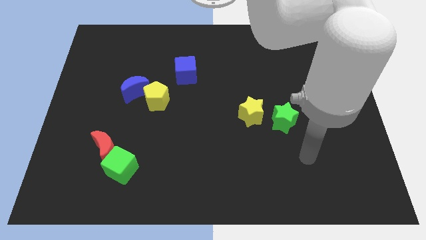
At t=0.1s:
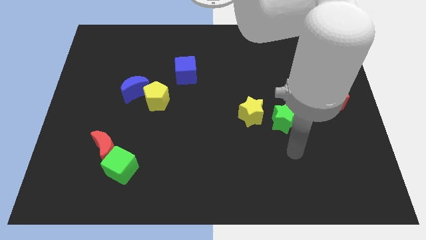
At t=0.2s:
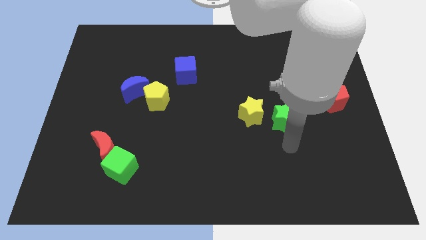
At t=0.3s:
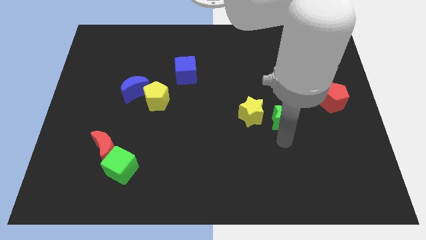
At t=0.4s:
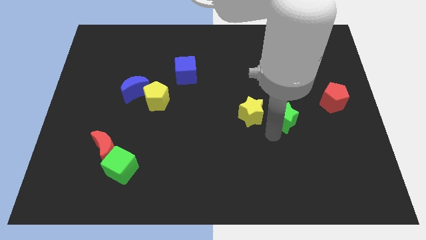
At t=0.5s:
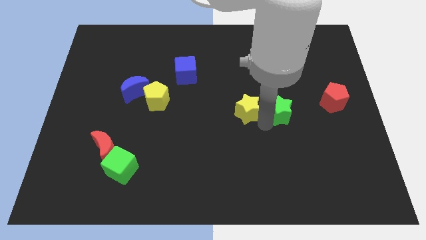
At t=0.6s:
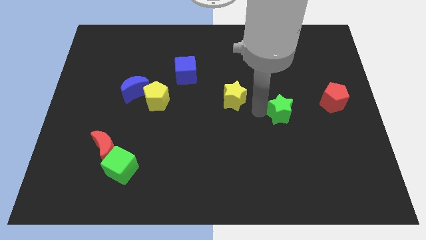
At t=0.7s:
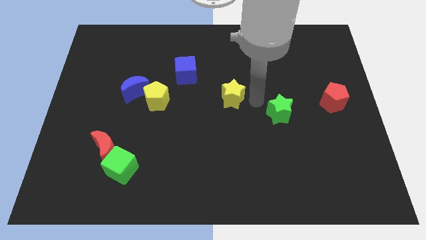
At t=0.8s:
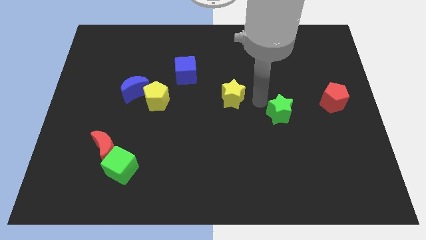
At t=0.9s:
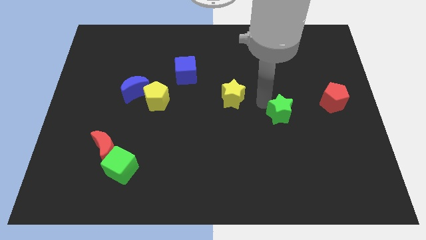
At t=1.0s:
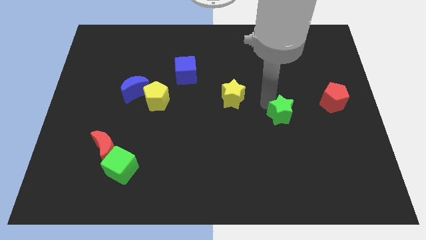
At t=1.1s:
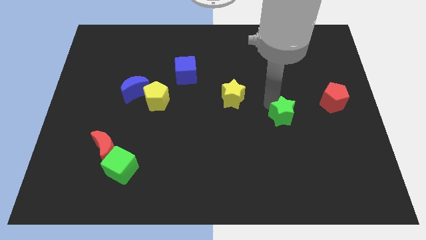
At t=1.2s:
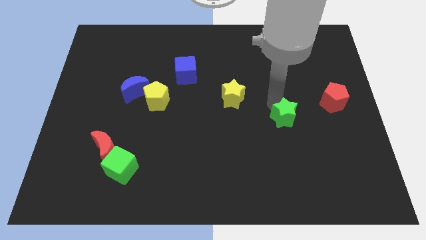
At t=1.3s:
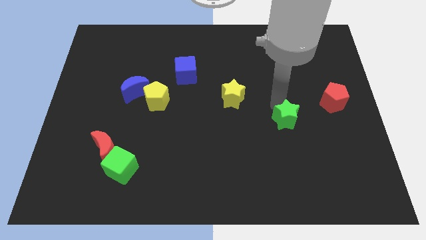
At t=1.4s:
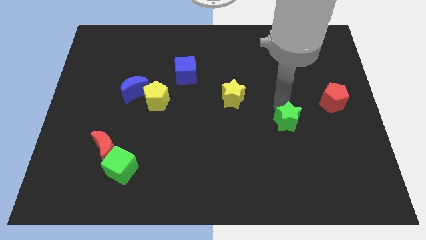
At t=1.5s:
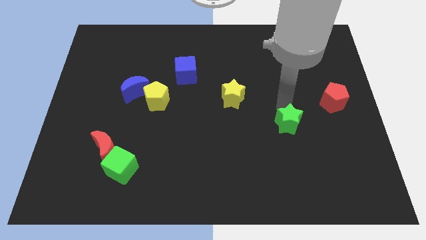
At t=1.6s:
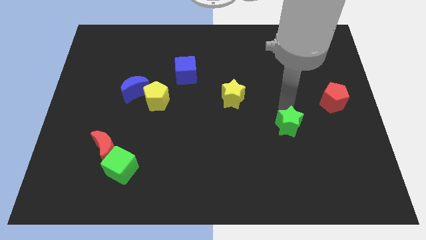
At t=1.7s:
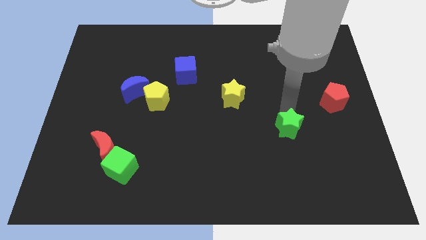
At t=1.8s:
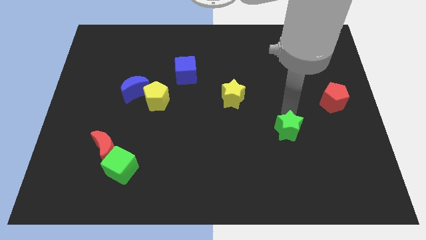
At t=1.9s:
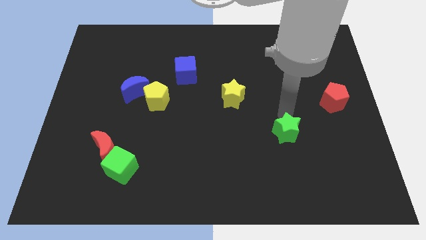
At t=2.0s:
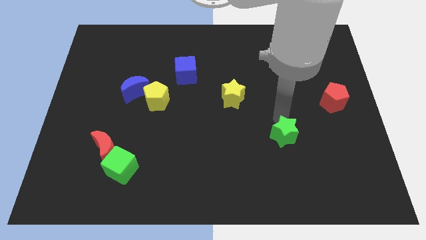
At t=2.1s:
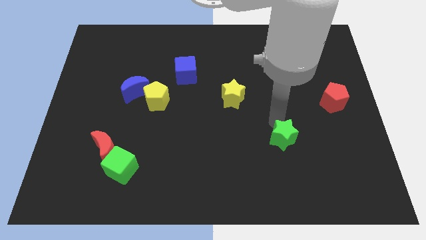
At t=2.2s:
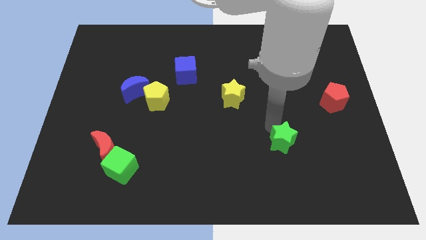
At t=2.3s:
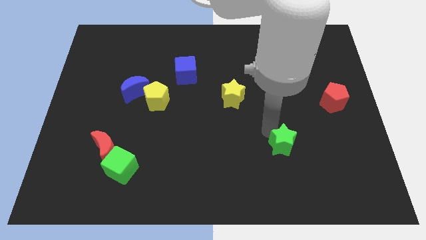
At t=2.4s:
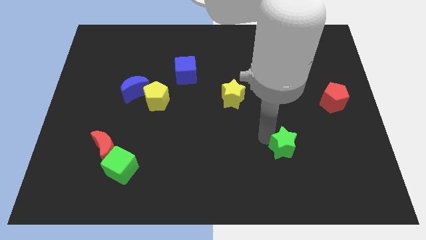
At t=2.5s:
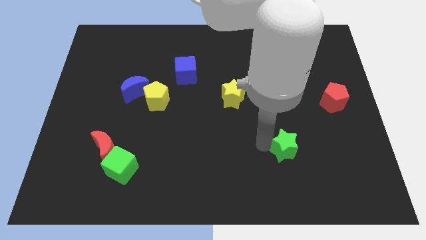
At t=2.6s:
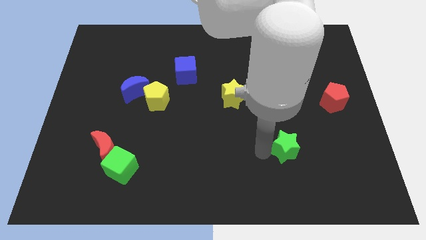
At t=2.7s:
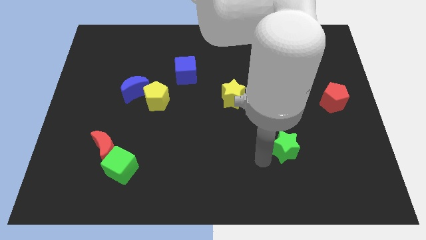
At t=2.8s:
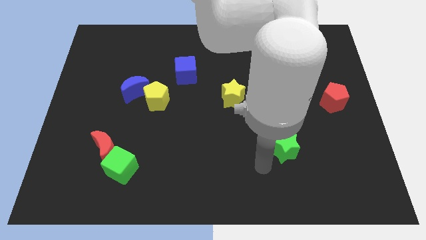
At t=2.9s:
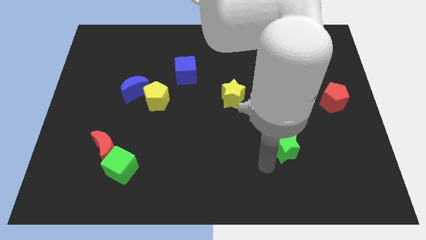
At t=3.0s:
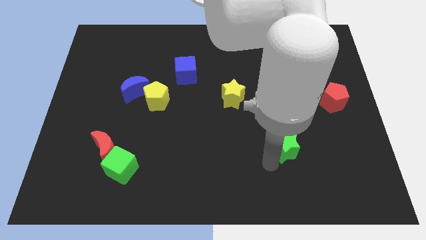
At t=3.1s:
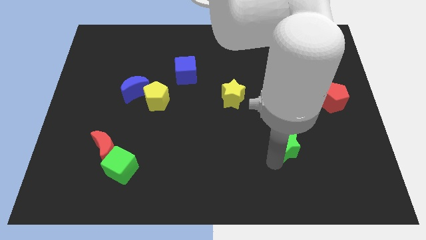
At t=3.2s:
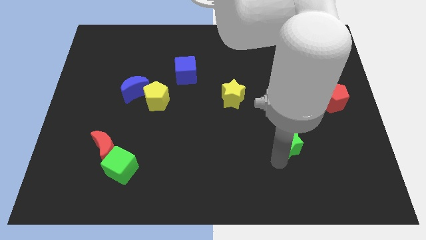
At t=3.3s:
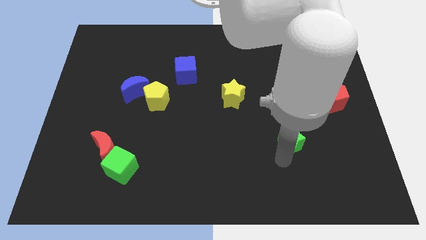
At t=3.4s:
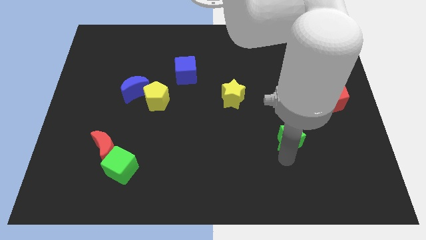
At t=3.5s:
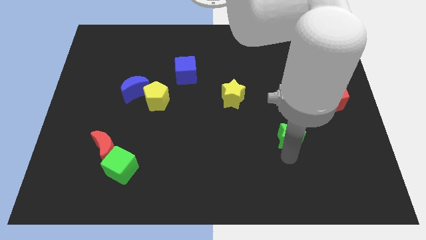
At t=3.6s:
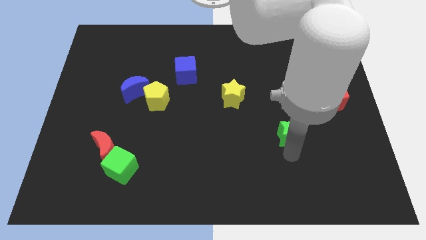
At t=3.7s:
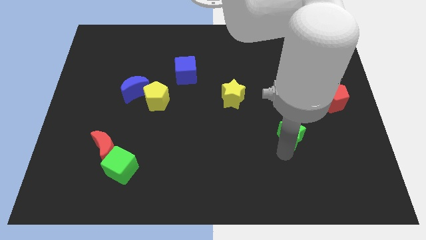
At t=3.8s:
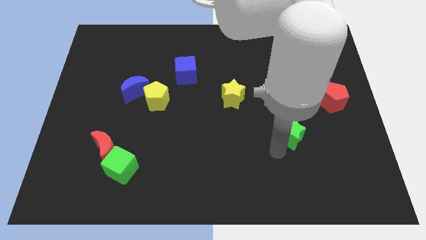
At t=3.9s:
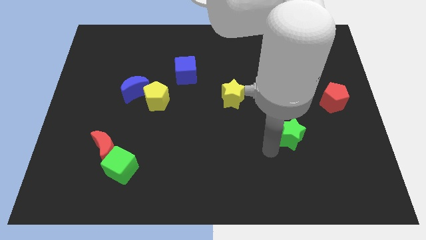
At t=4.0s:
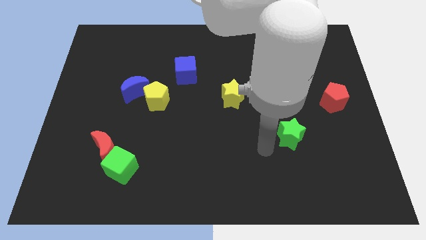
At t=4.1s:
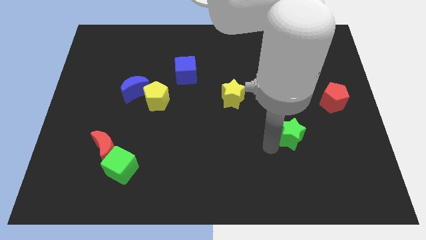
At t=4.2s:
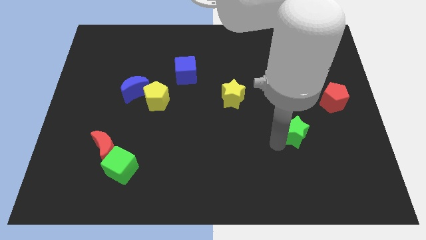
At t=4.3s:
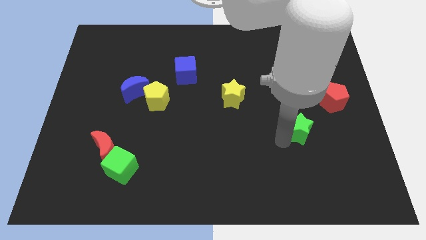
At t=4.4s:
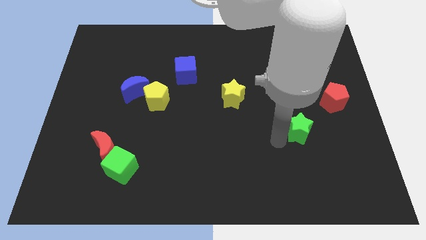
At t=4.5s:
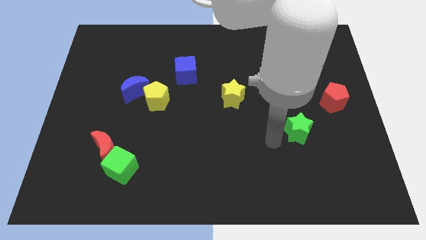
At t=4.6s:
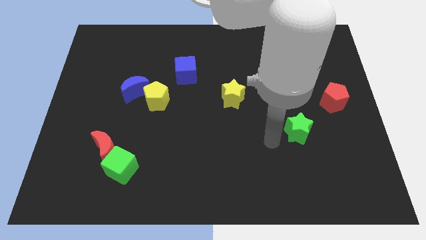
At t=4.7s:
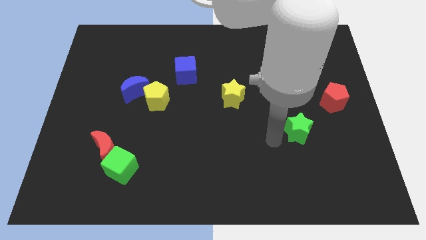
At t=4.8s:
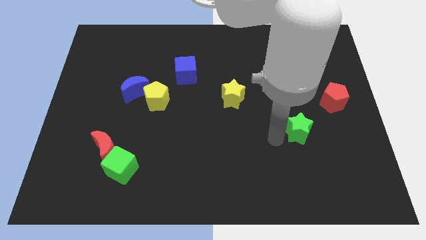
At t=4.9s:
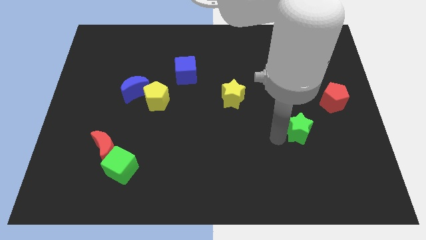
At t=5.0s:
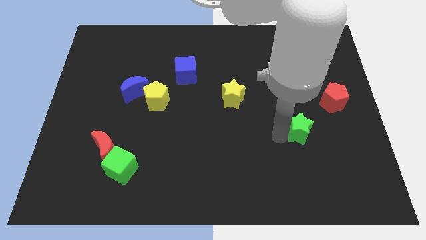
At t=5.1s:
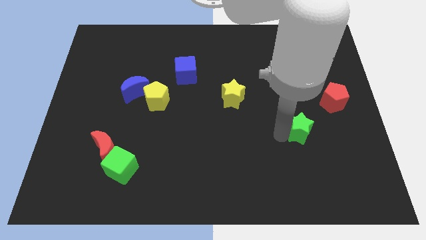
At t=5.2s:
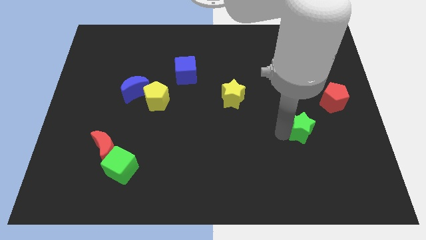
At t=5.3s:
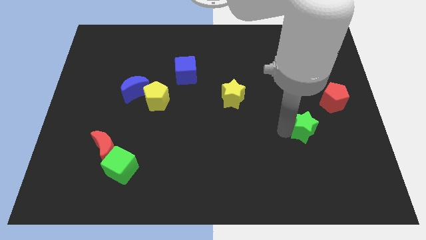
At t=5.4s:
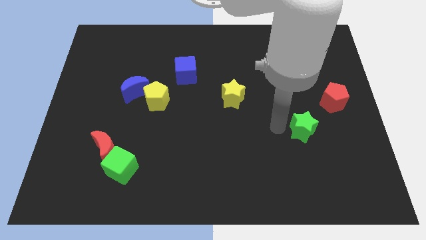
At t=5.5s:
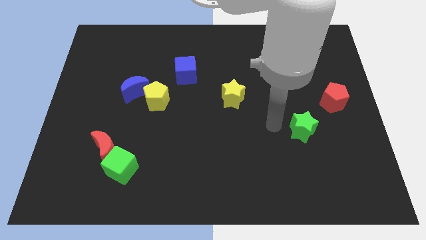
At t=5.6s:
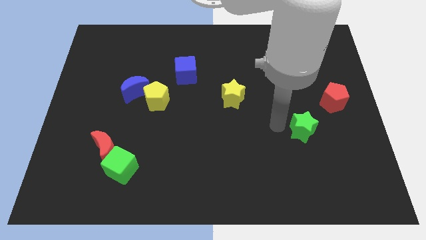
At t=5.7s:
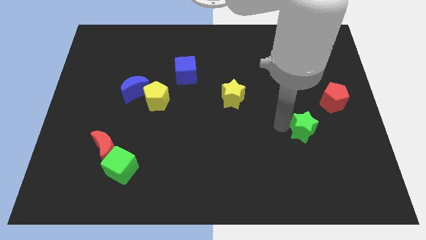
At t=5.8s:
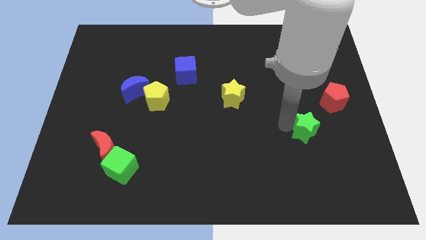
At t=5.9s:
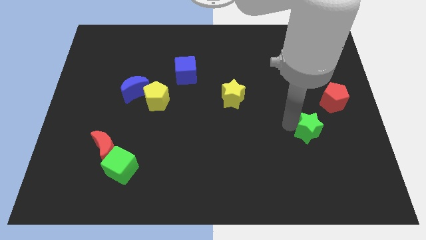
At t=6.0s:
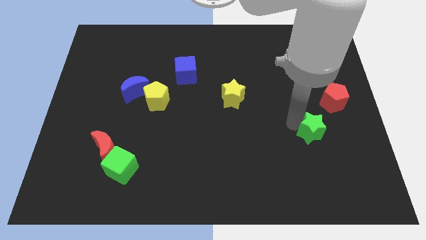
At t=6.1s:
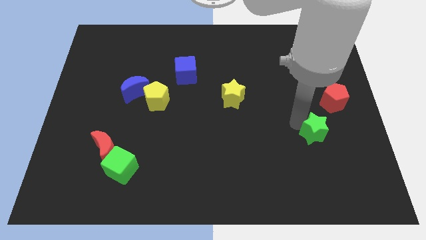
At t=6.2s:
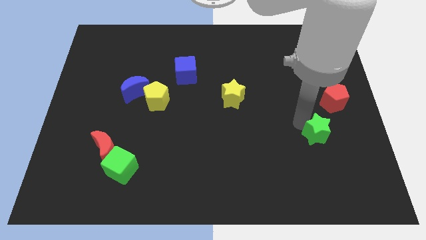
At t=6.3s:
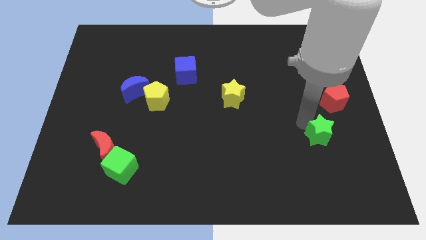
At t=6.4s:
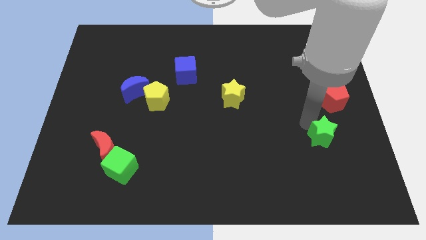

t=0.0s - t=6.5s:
push the green star below the red pentagon

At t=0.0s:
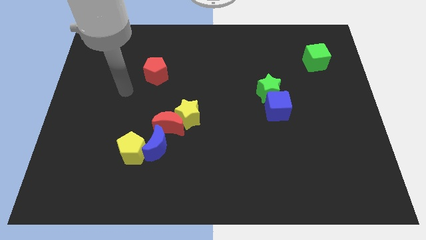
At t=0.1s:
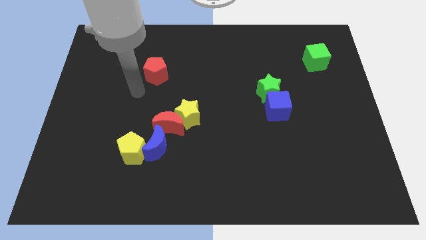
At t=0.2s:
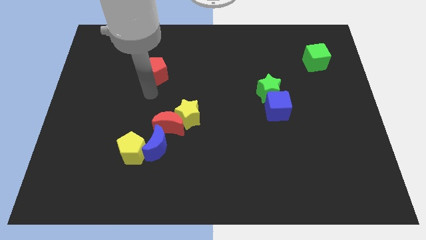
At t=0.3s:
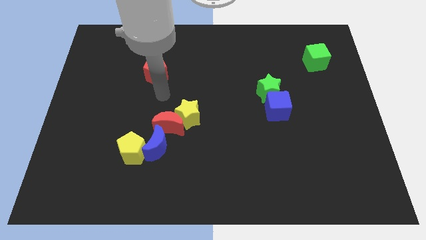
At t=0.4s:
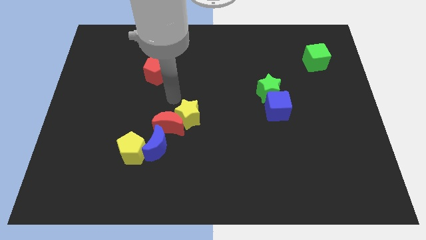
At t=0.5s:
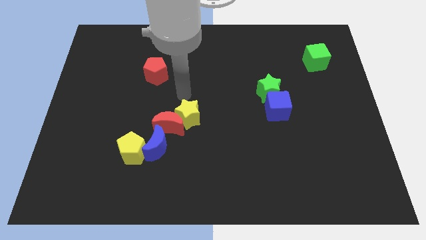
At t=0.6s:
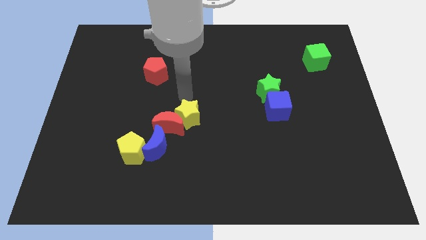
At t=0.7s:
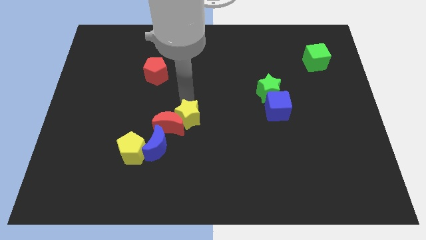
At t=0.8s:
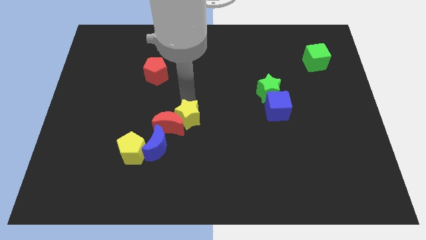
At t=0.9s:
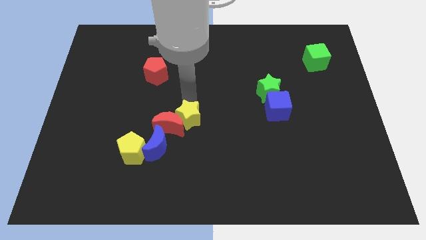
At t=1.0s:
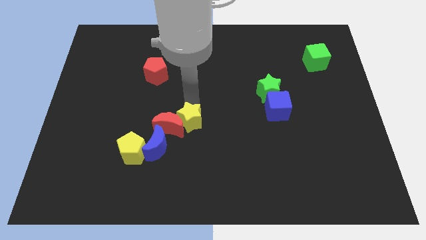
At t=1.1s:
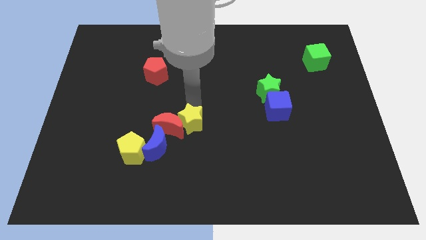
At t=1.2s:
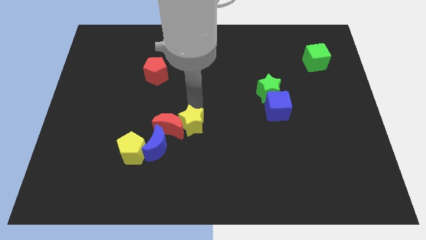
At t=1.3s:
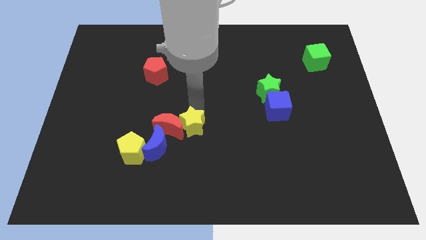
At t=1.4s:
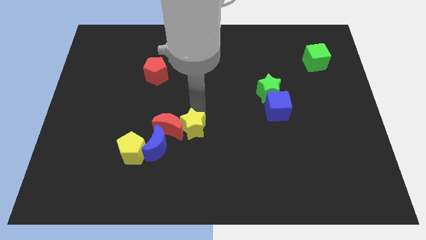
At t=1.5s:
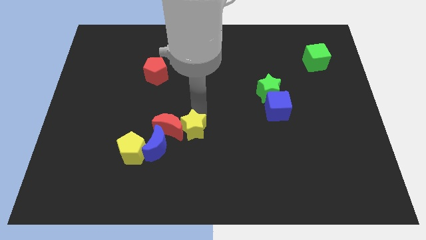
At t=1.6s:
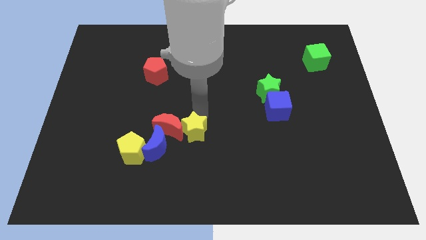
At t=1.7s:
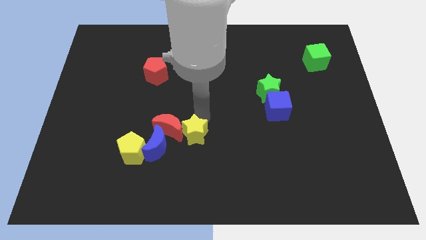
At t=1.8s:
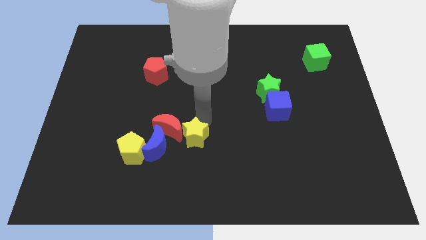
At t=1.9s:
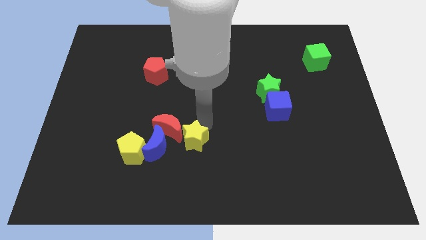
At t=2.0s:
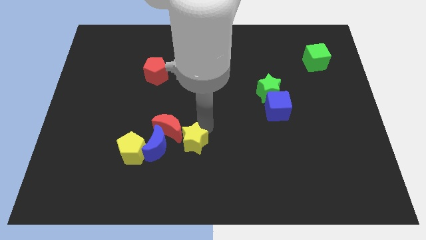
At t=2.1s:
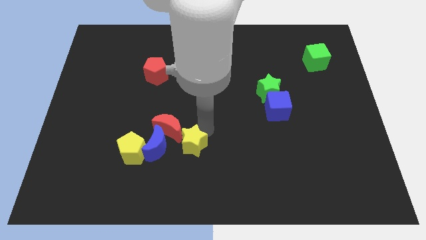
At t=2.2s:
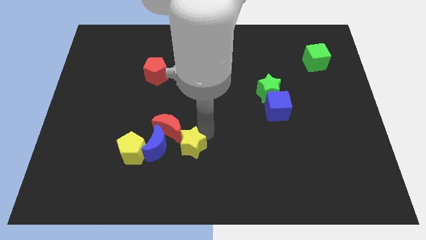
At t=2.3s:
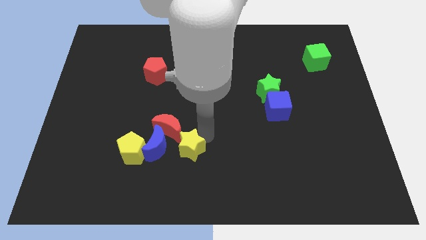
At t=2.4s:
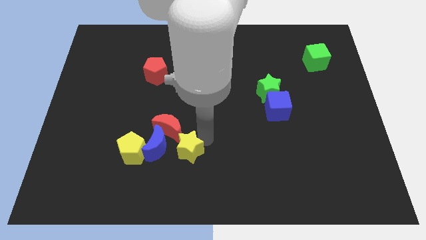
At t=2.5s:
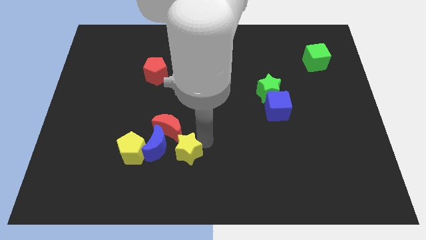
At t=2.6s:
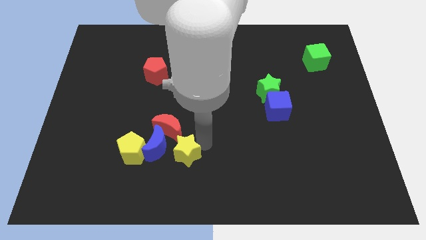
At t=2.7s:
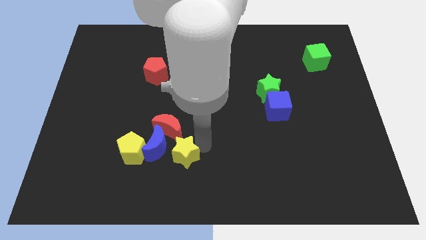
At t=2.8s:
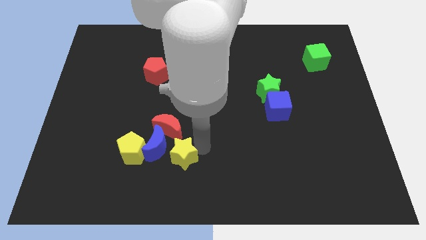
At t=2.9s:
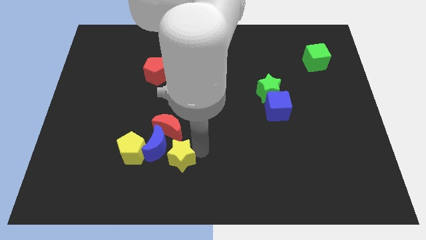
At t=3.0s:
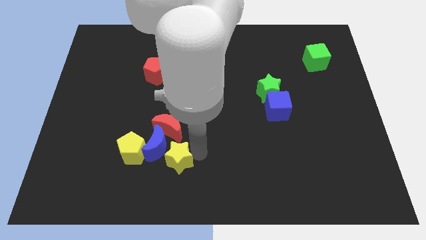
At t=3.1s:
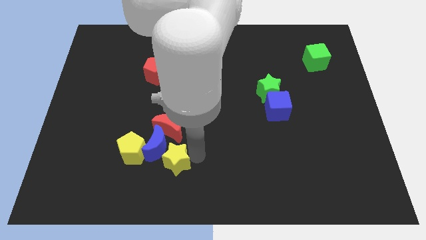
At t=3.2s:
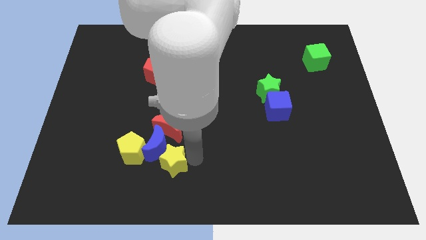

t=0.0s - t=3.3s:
slide the yellow star to the bottom right of the yellow pentagon
